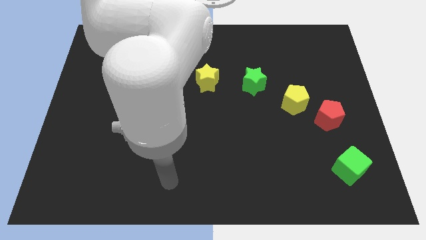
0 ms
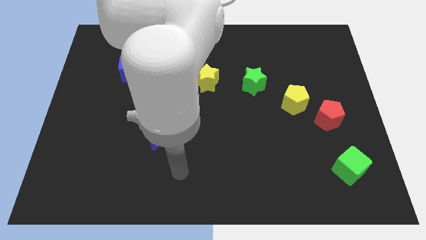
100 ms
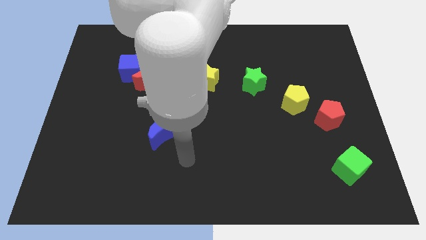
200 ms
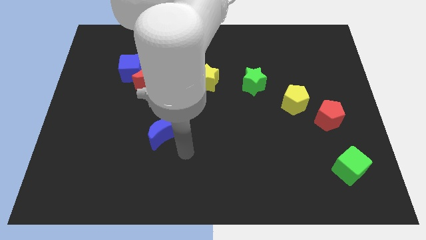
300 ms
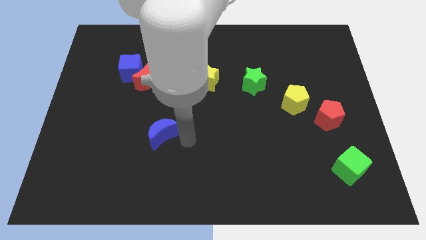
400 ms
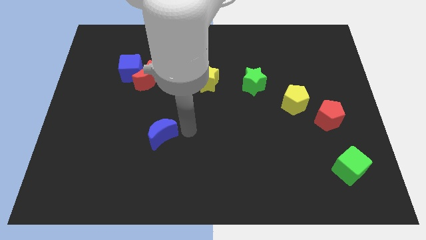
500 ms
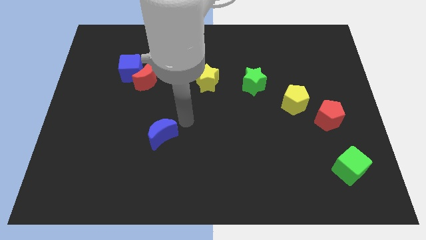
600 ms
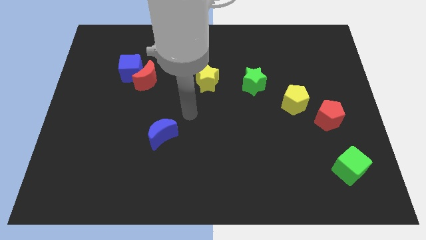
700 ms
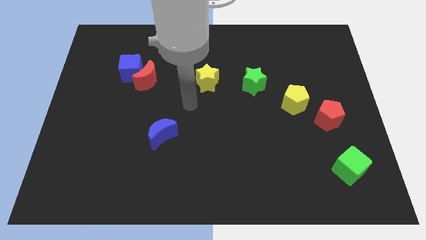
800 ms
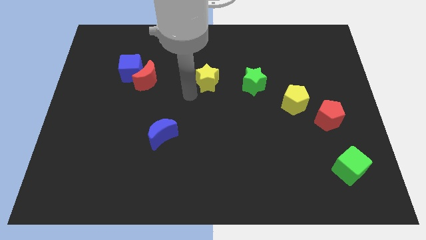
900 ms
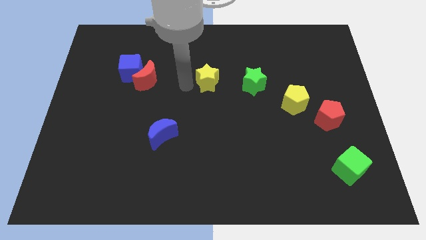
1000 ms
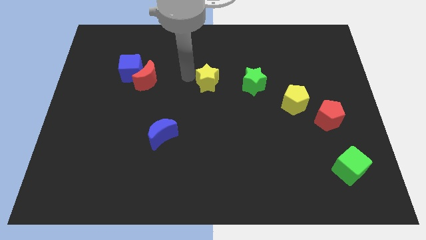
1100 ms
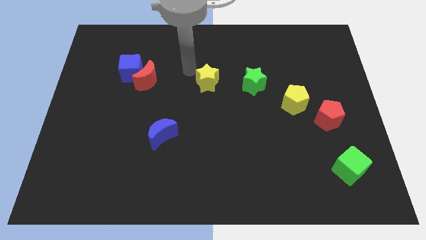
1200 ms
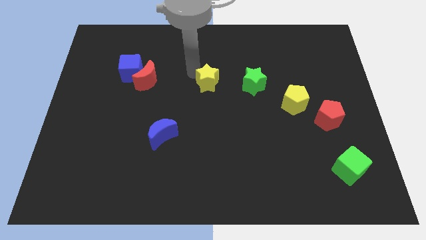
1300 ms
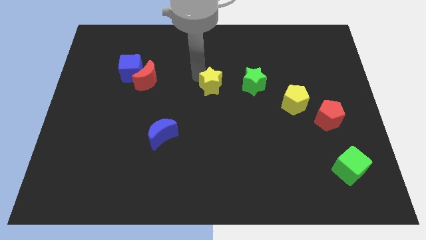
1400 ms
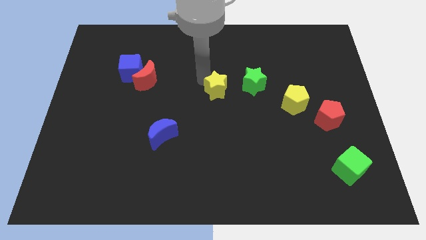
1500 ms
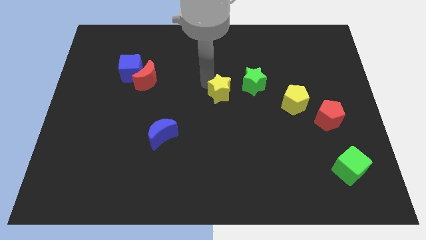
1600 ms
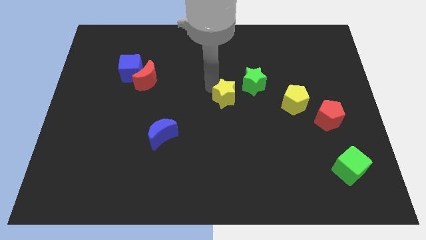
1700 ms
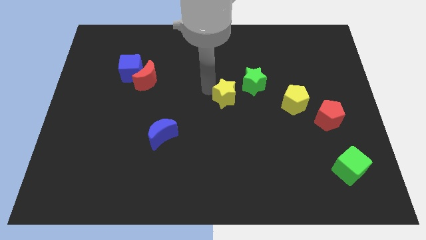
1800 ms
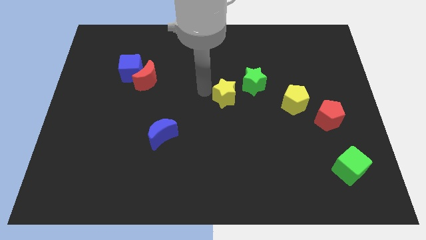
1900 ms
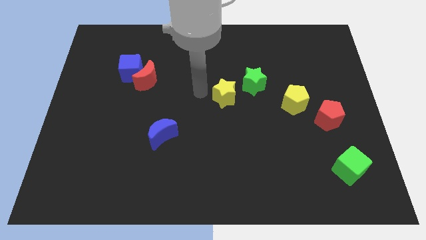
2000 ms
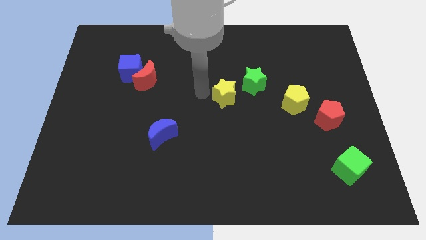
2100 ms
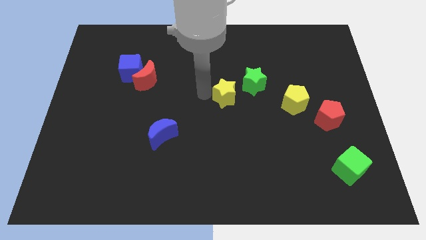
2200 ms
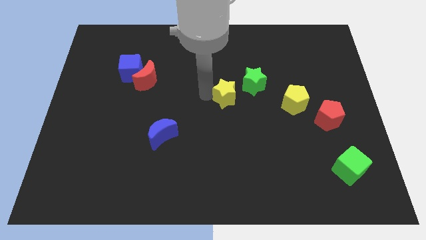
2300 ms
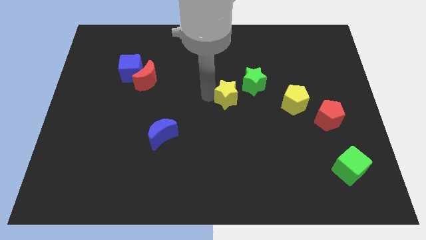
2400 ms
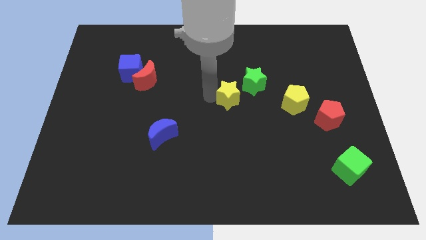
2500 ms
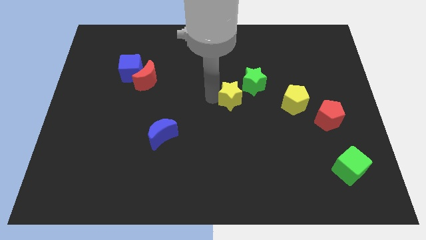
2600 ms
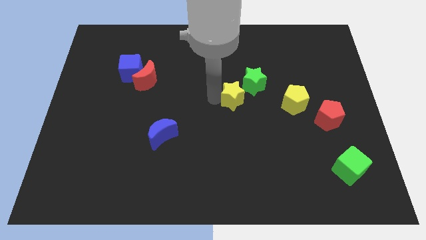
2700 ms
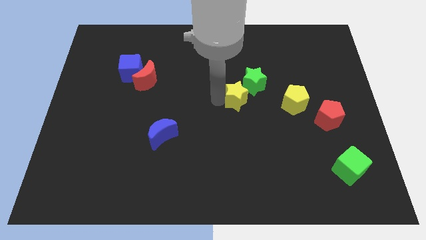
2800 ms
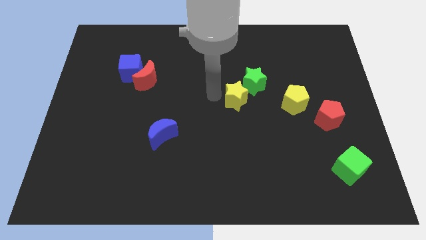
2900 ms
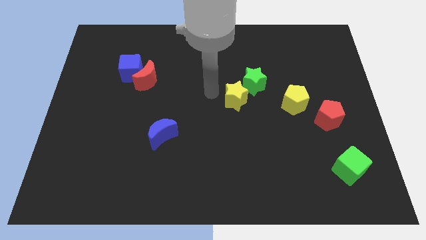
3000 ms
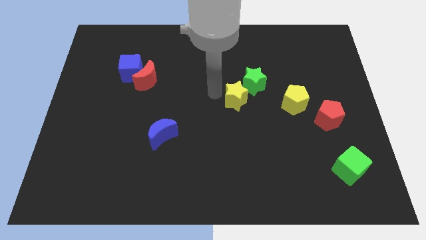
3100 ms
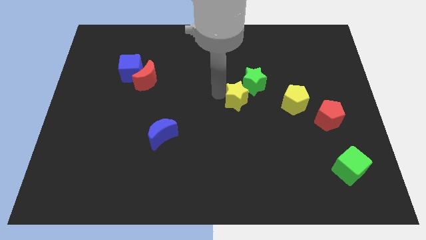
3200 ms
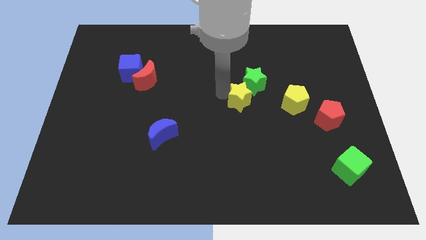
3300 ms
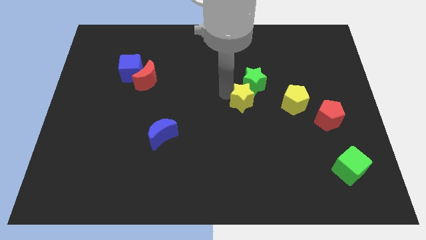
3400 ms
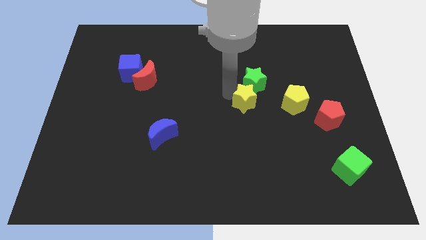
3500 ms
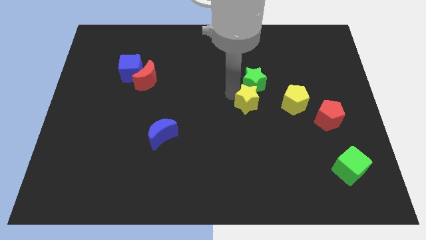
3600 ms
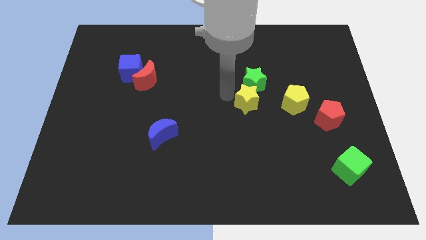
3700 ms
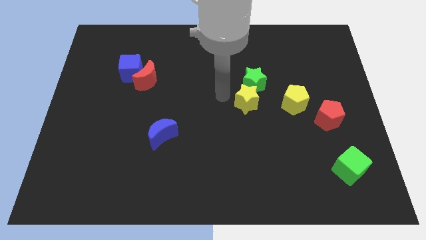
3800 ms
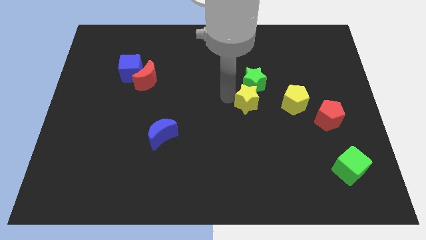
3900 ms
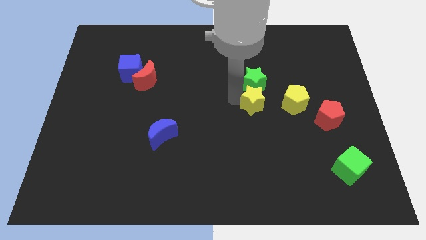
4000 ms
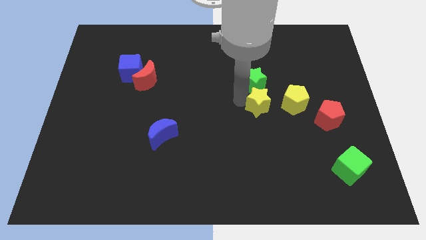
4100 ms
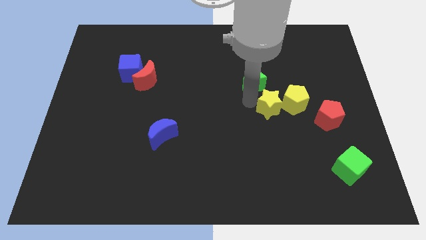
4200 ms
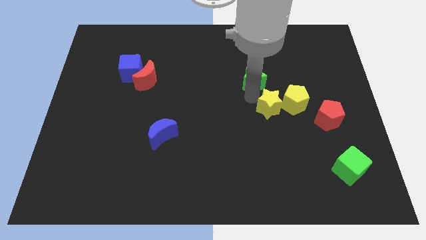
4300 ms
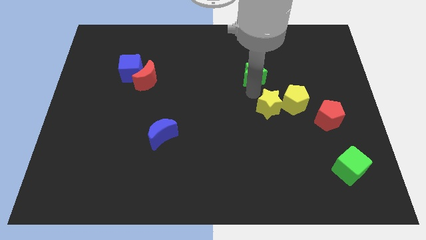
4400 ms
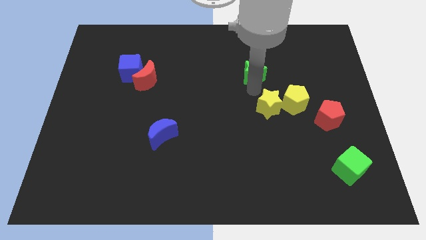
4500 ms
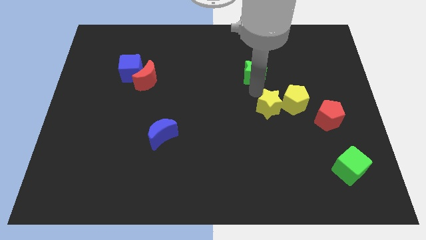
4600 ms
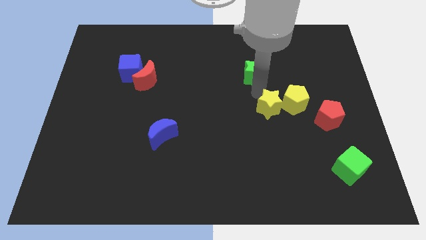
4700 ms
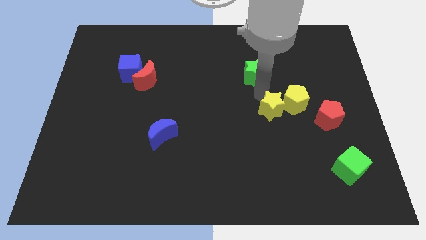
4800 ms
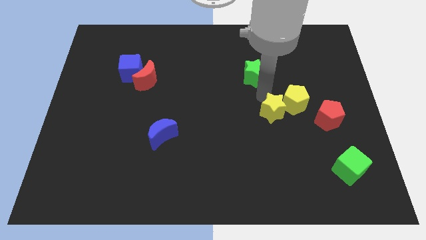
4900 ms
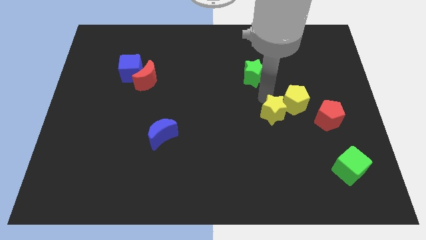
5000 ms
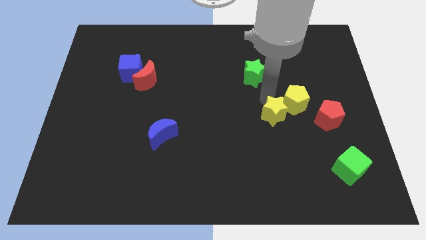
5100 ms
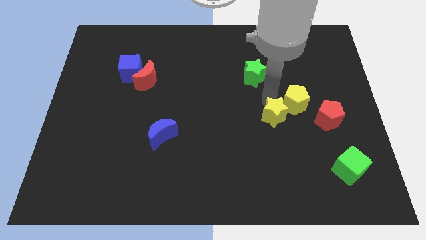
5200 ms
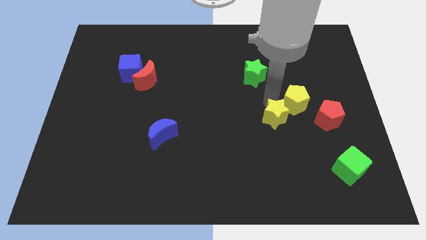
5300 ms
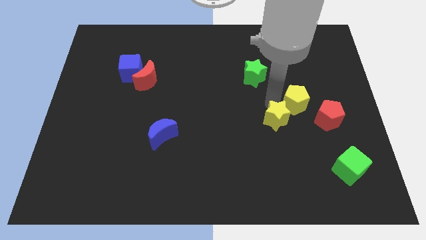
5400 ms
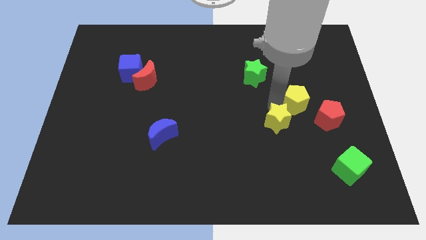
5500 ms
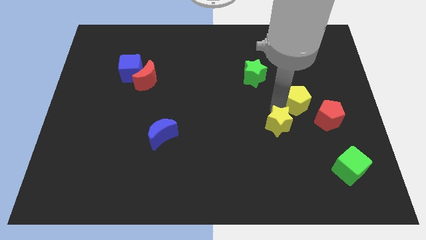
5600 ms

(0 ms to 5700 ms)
push the yellow star downwards and right diagonally

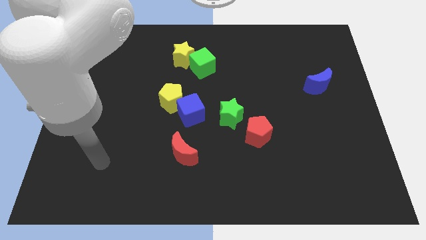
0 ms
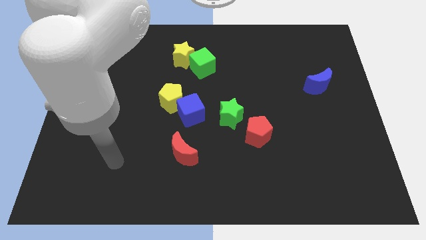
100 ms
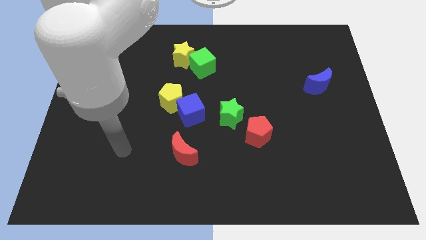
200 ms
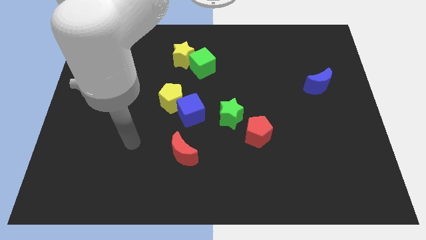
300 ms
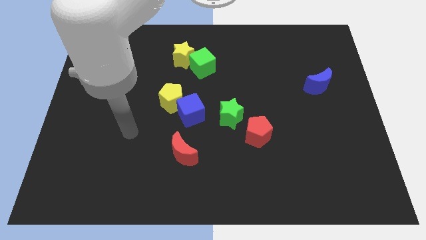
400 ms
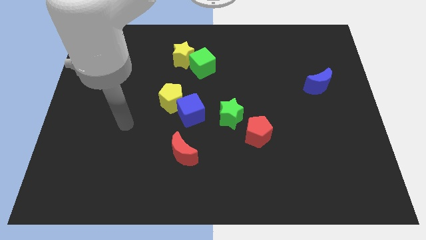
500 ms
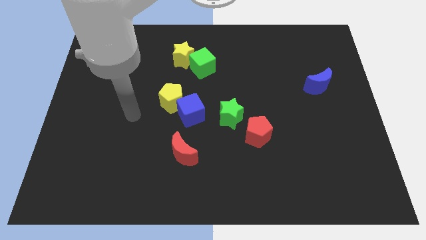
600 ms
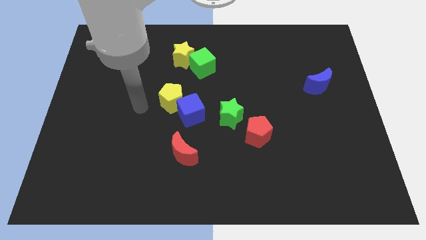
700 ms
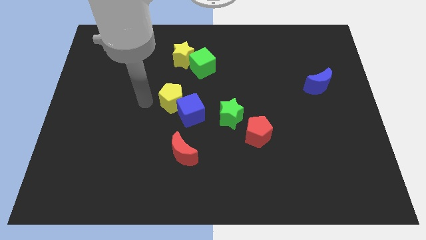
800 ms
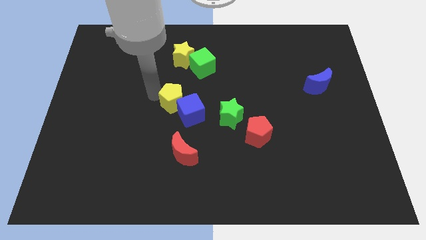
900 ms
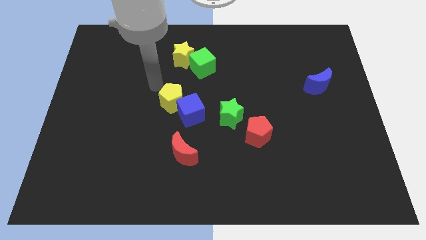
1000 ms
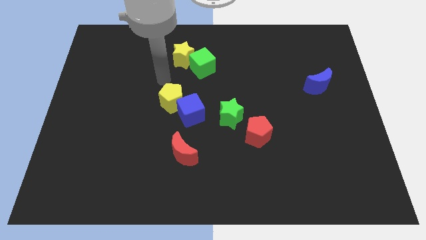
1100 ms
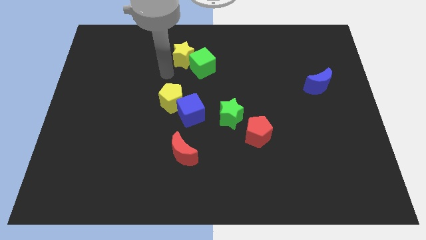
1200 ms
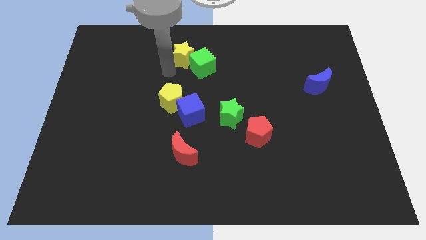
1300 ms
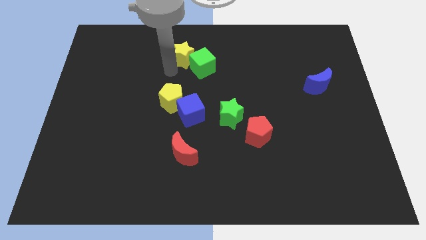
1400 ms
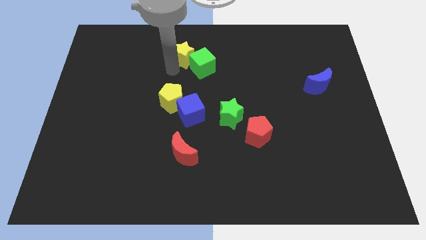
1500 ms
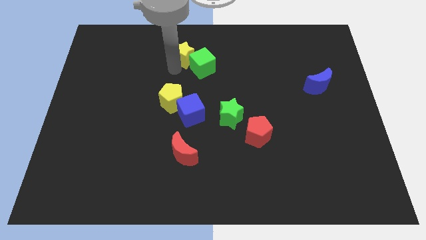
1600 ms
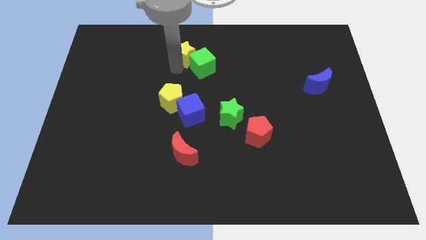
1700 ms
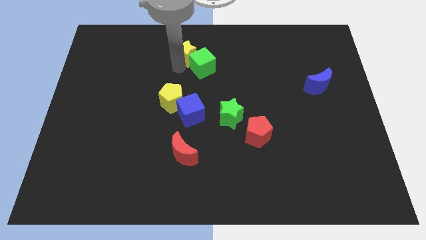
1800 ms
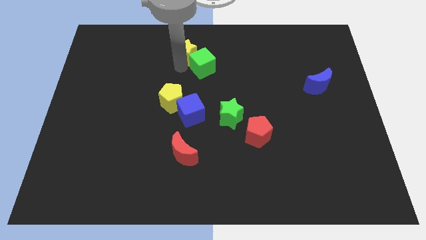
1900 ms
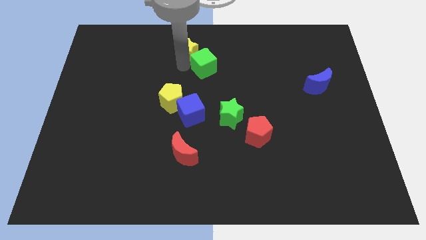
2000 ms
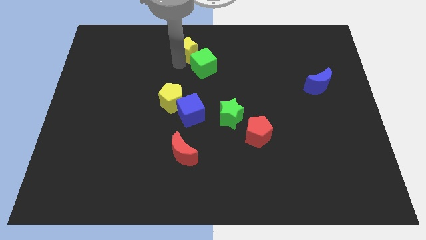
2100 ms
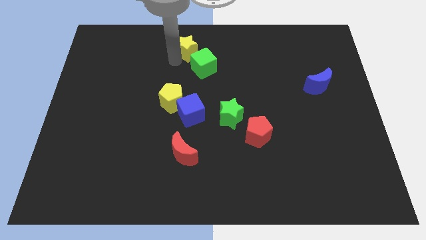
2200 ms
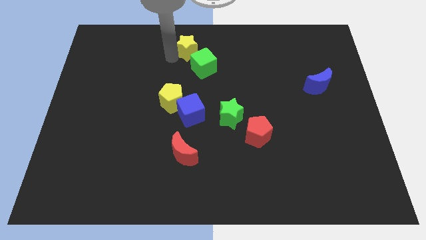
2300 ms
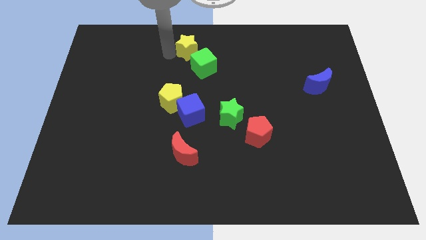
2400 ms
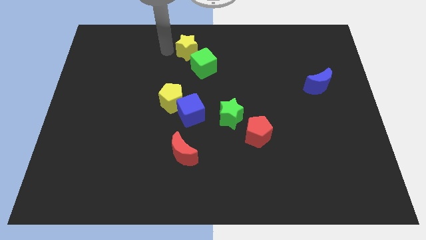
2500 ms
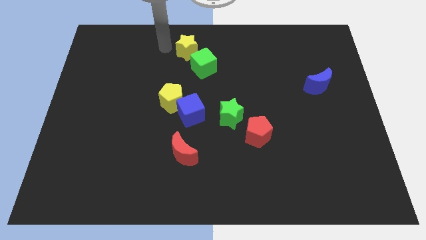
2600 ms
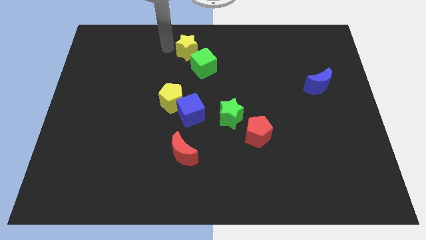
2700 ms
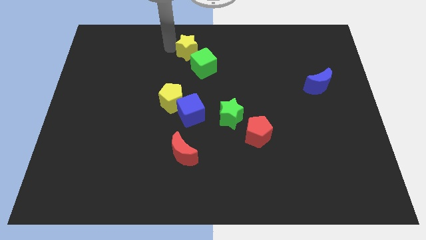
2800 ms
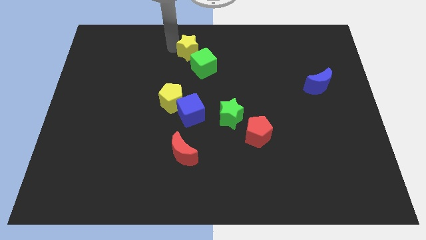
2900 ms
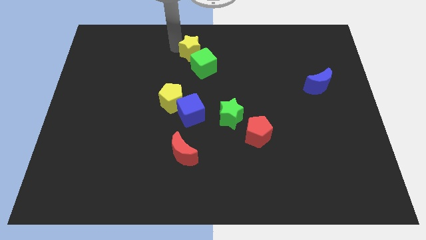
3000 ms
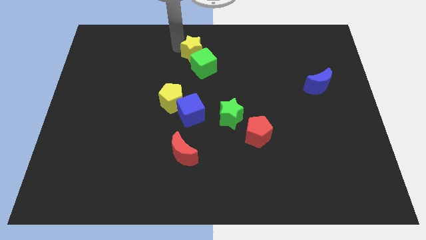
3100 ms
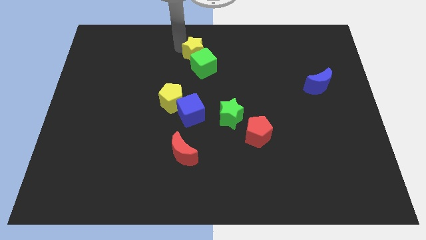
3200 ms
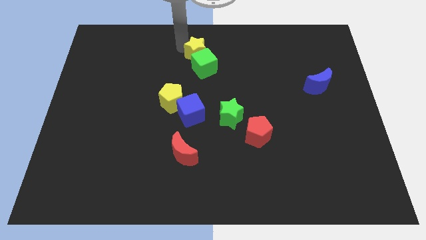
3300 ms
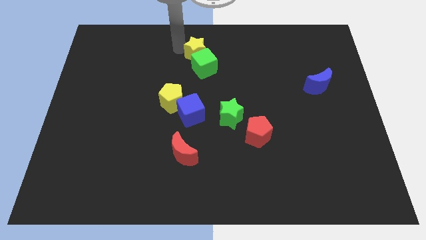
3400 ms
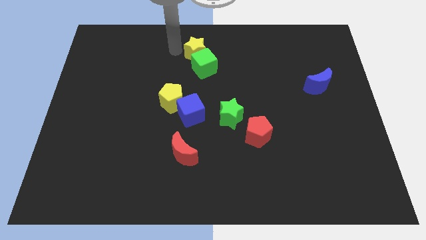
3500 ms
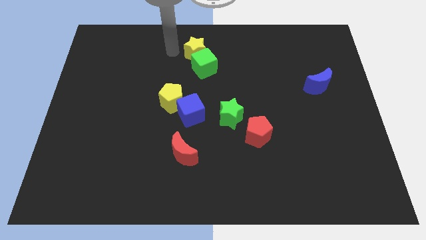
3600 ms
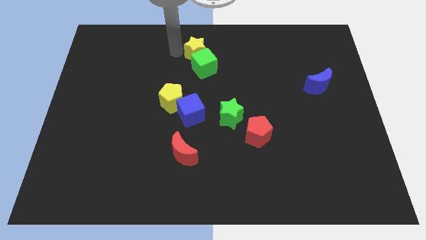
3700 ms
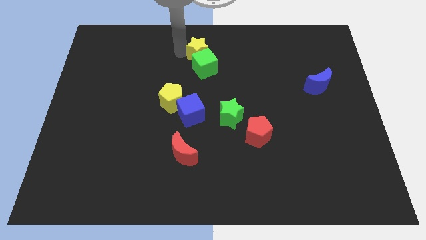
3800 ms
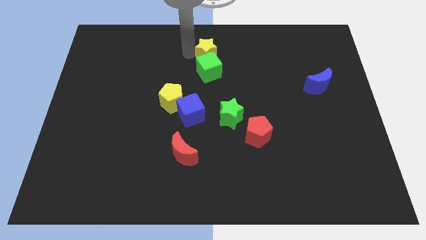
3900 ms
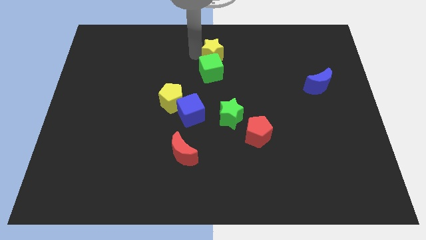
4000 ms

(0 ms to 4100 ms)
slightly slide the yellow star to the right
